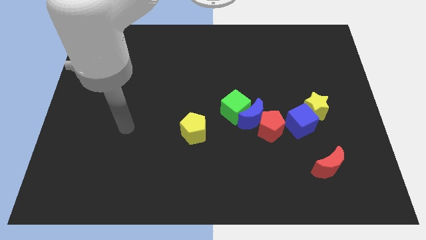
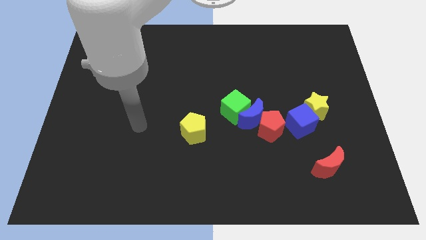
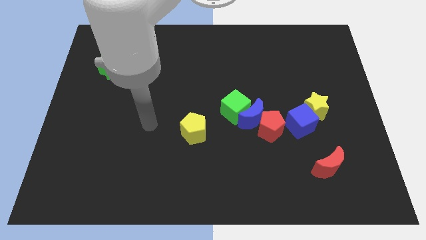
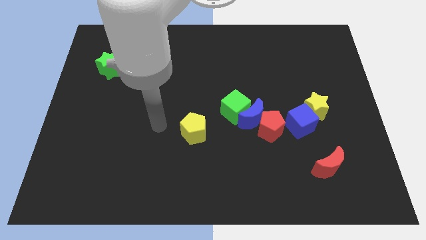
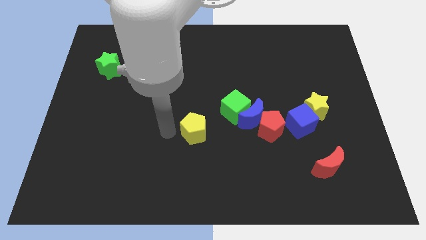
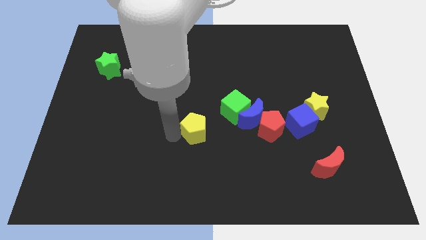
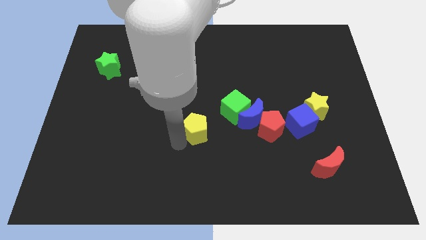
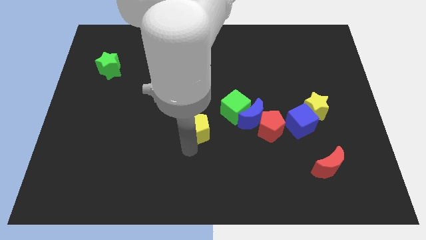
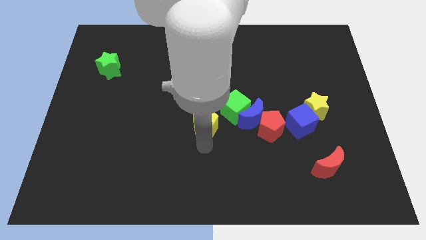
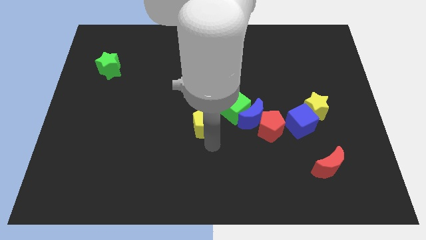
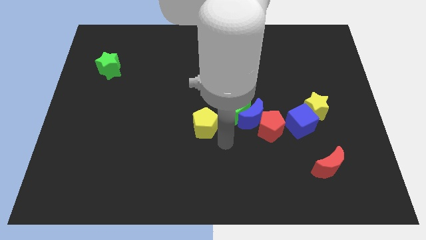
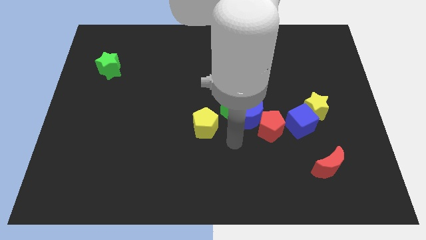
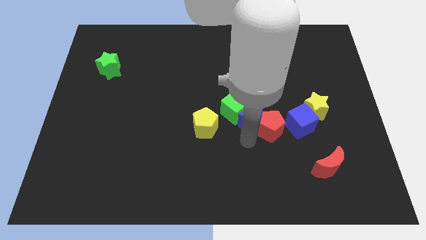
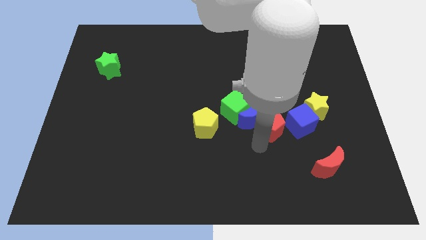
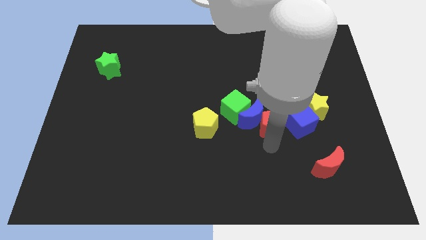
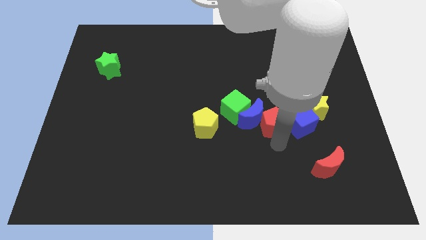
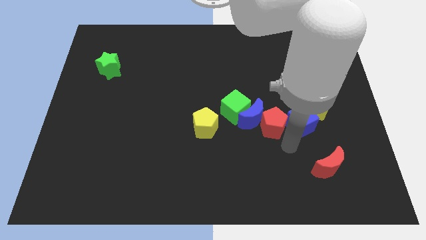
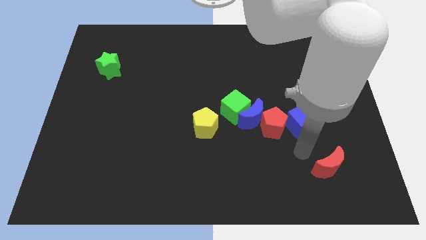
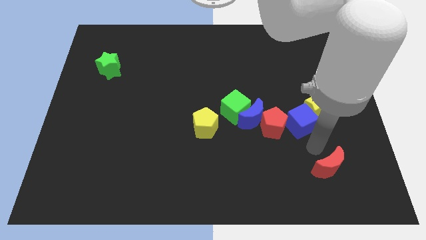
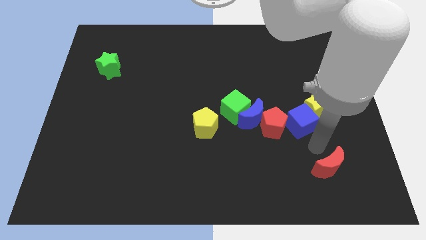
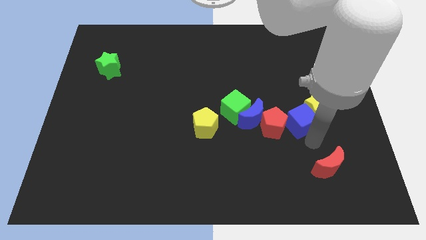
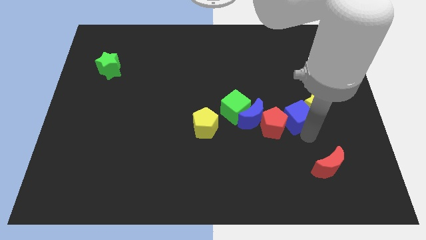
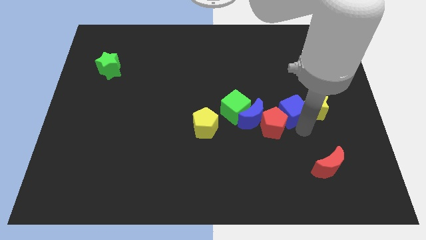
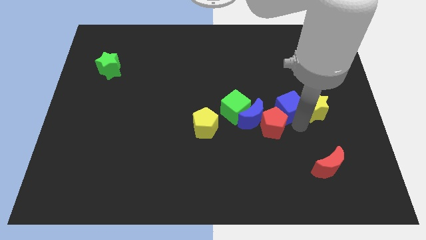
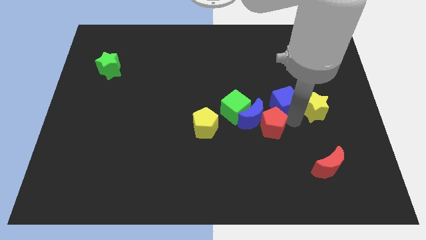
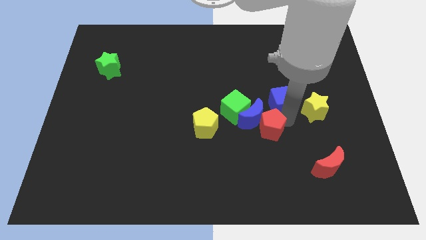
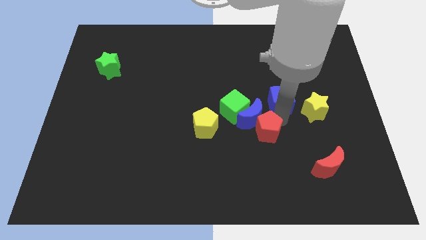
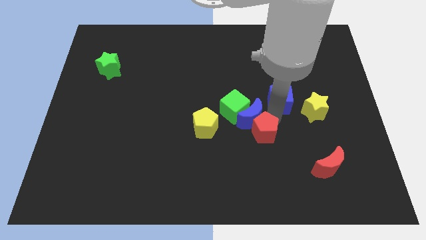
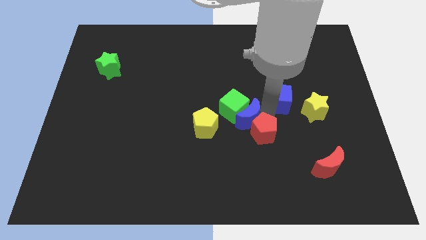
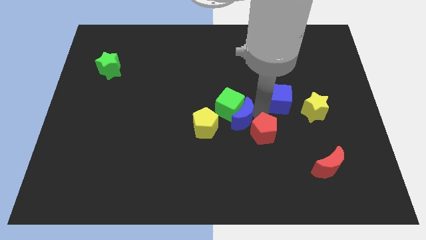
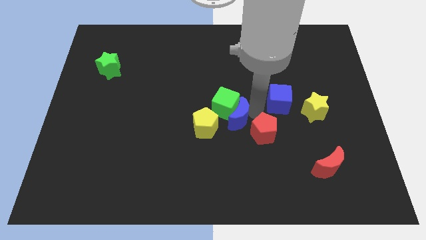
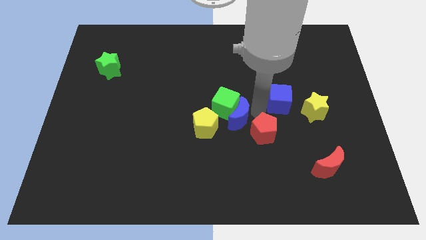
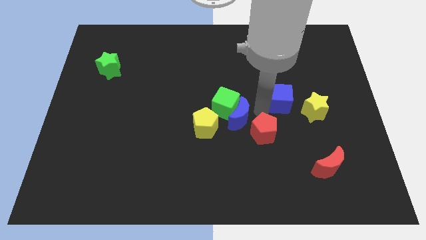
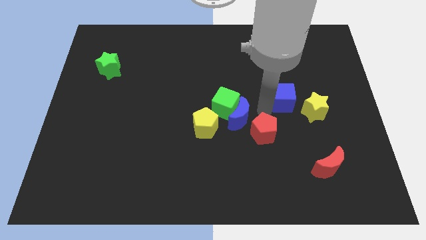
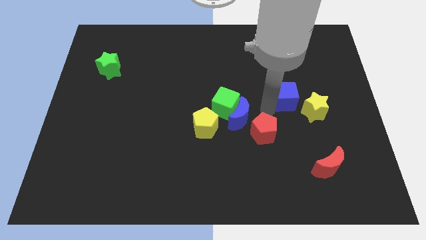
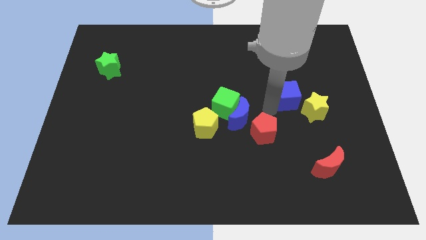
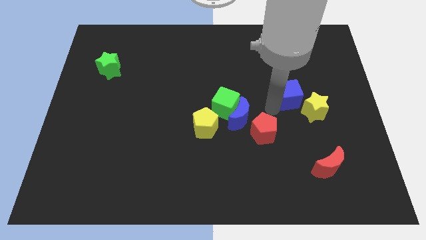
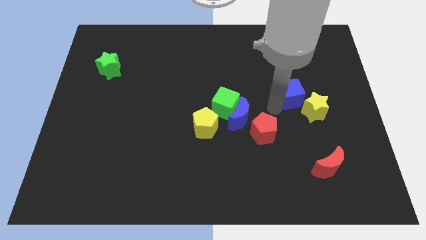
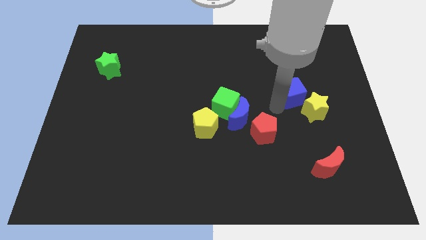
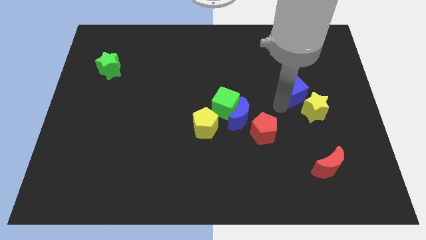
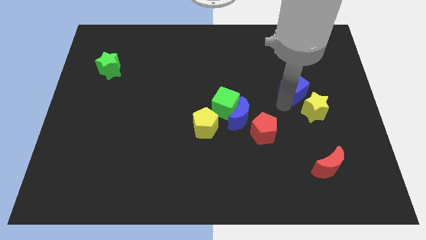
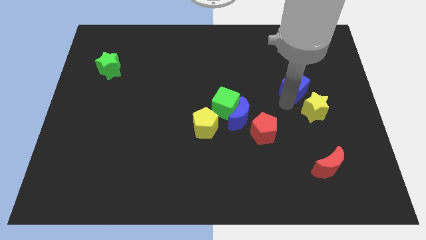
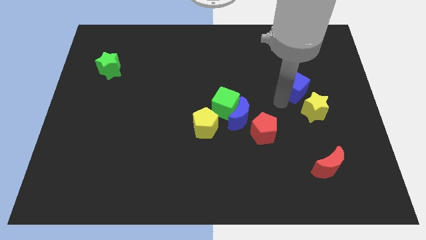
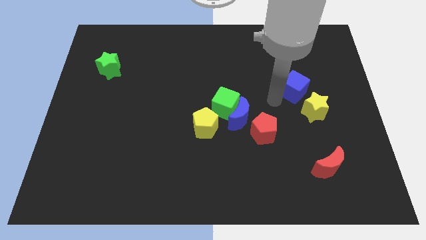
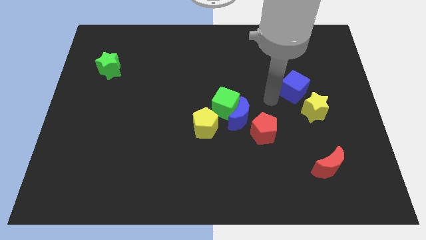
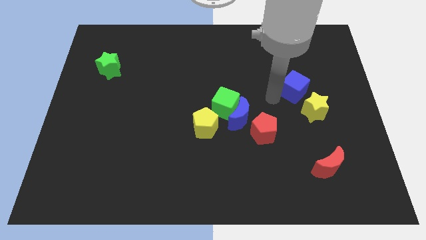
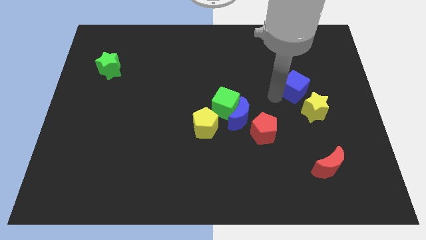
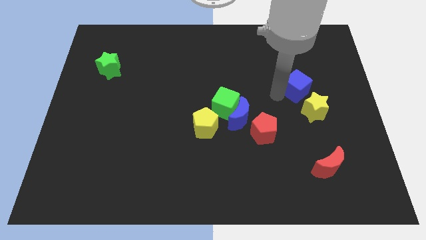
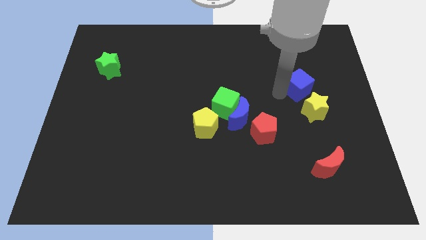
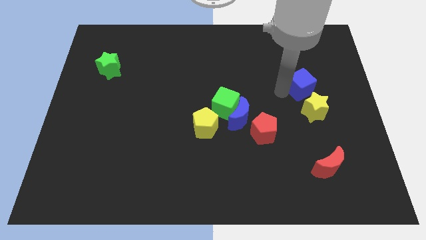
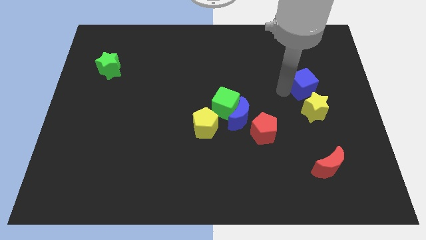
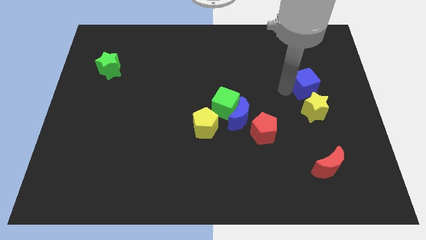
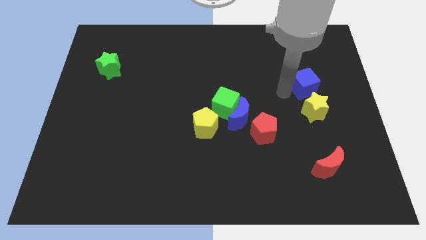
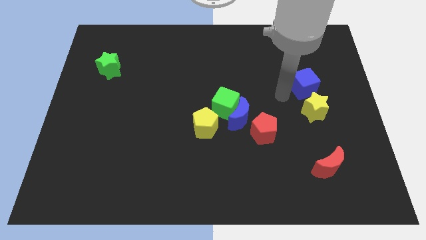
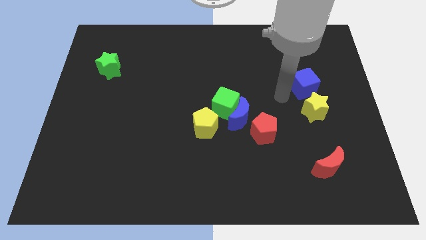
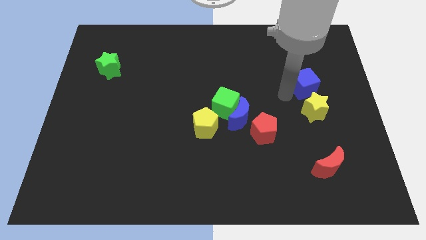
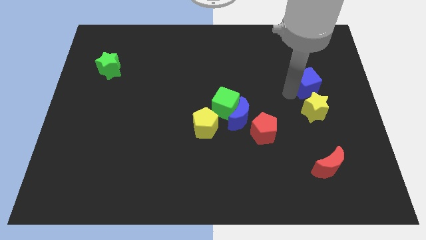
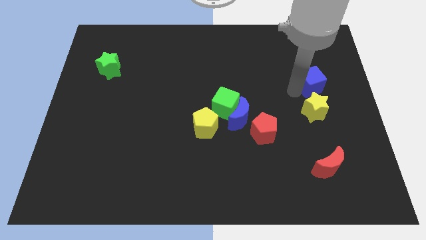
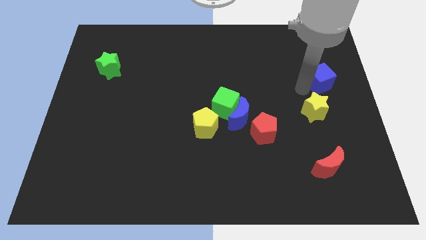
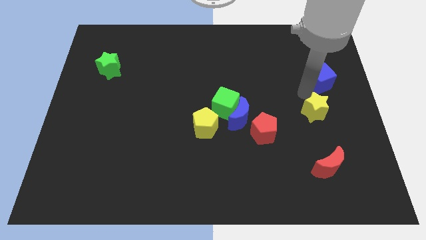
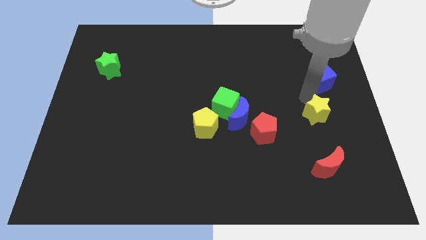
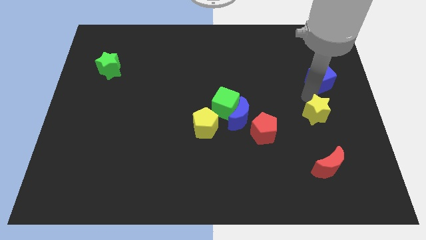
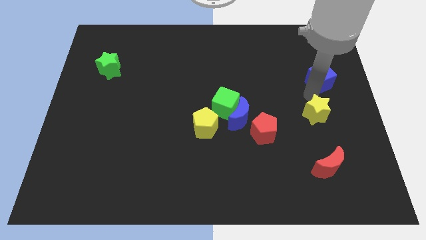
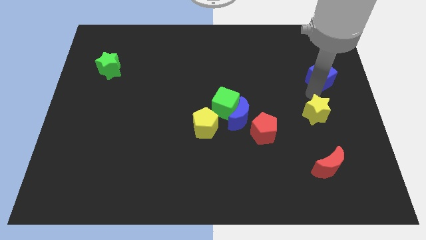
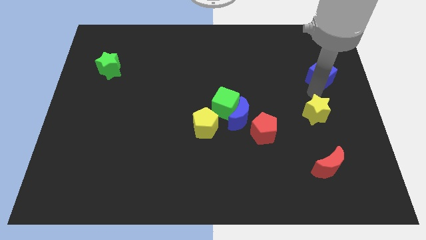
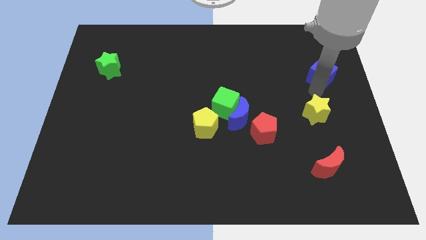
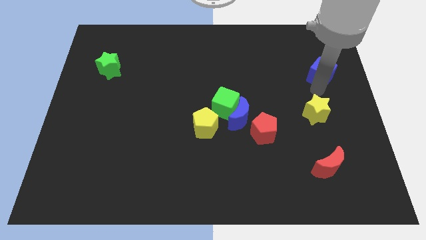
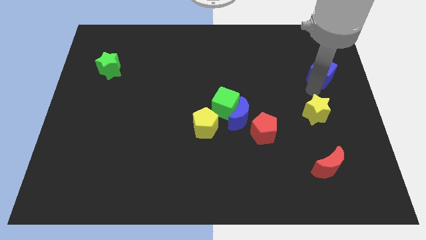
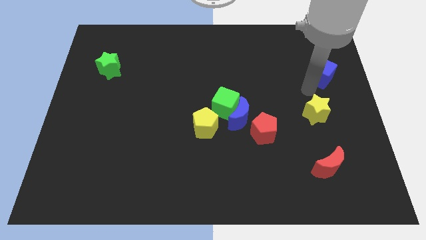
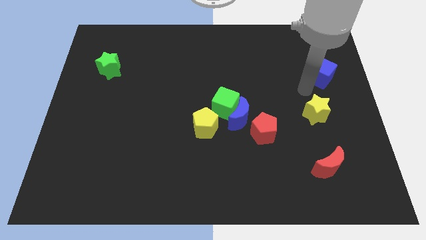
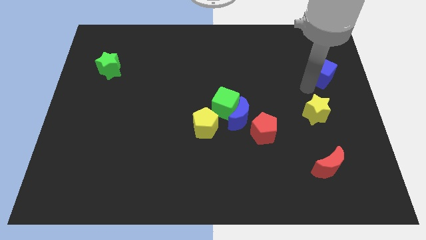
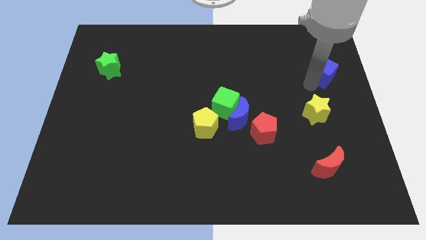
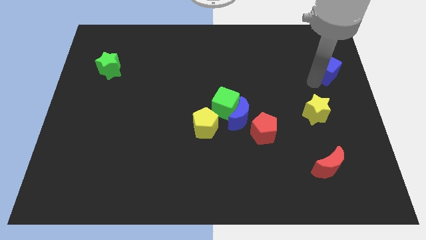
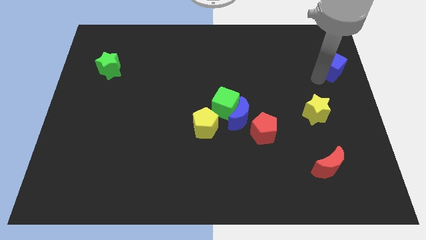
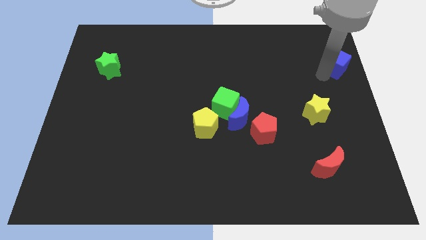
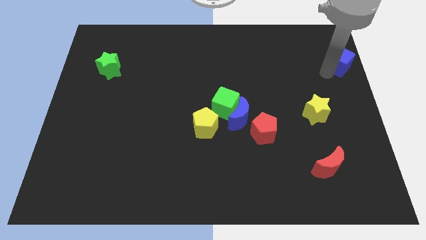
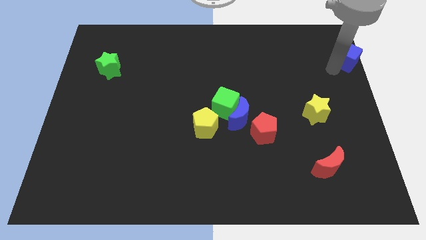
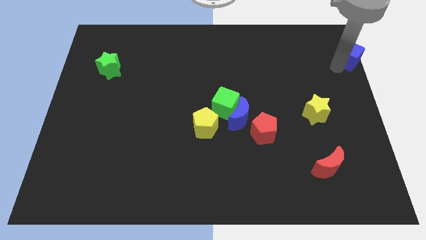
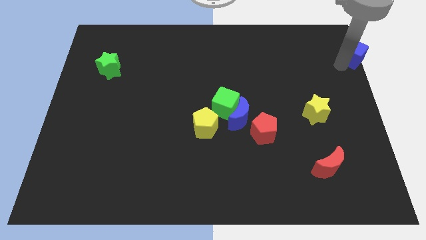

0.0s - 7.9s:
move the blue cube to the upper right corner
